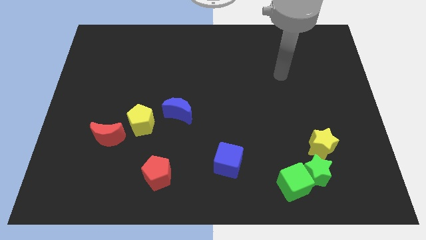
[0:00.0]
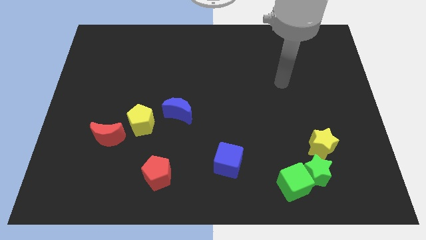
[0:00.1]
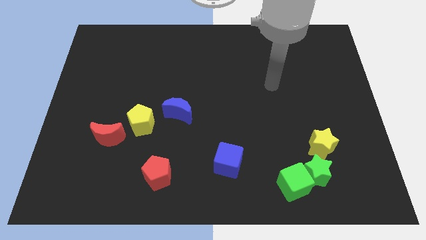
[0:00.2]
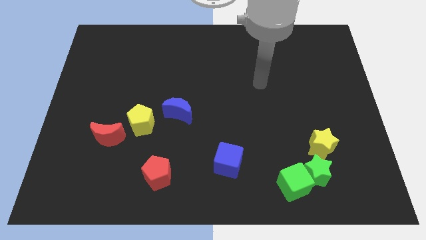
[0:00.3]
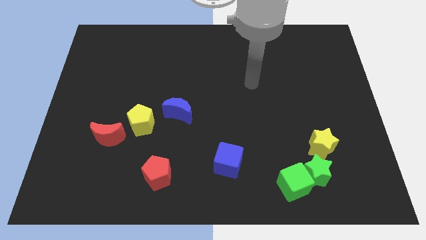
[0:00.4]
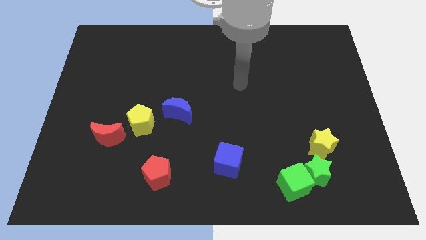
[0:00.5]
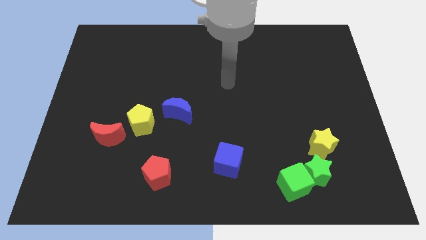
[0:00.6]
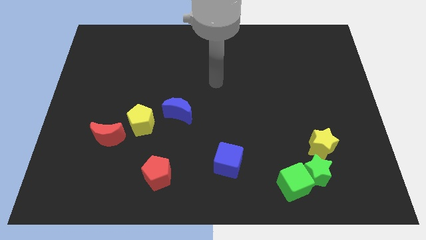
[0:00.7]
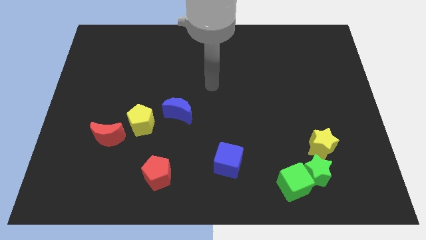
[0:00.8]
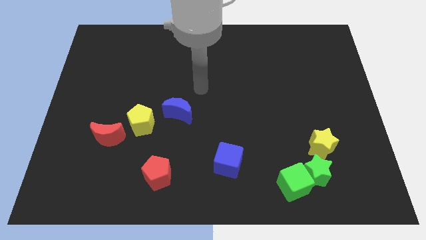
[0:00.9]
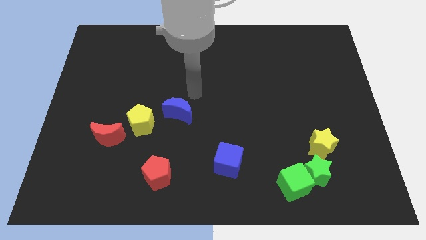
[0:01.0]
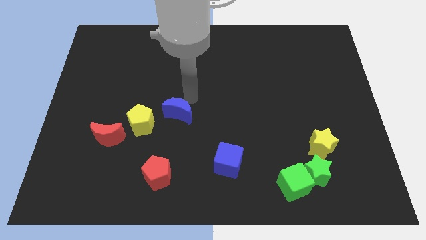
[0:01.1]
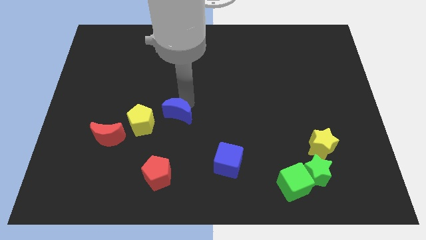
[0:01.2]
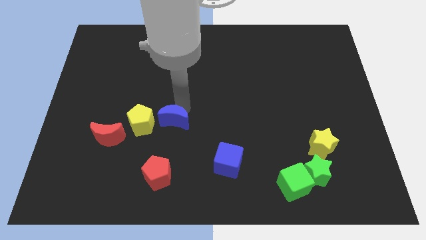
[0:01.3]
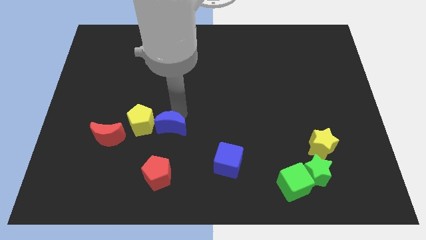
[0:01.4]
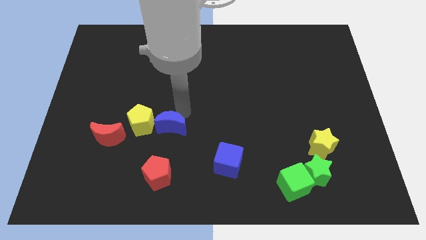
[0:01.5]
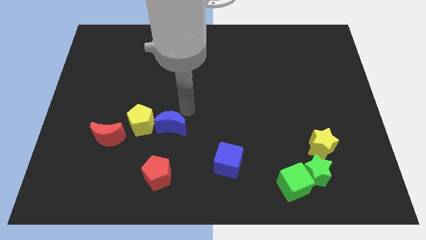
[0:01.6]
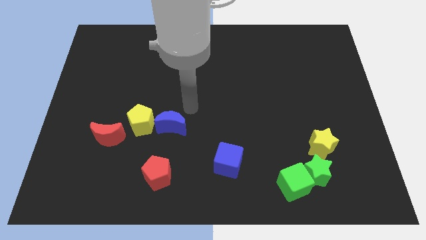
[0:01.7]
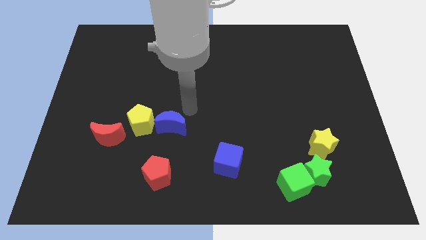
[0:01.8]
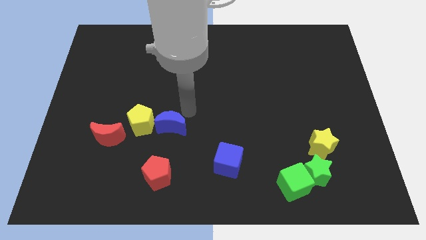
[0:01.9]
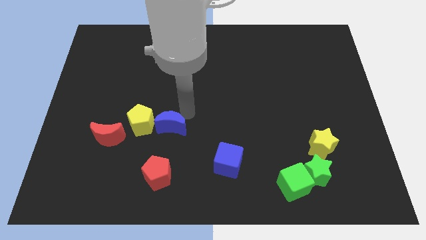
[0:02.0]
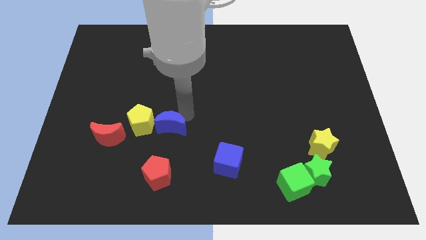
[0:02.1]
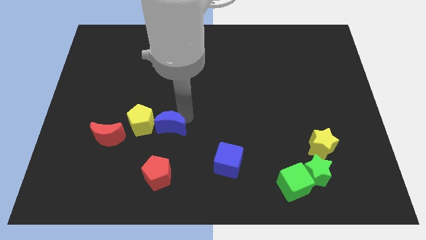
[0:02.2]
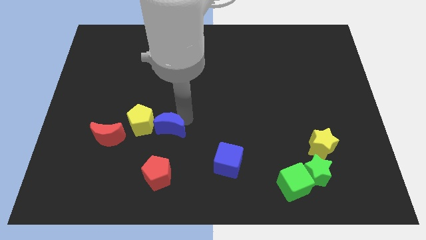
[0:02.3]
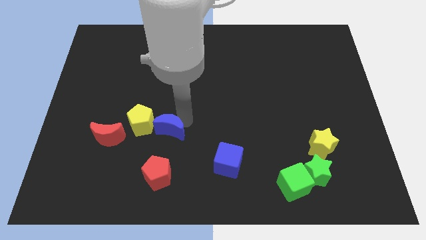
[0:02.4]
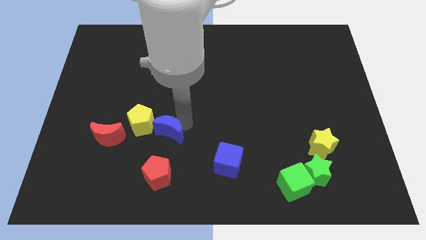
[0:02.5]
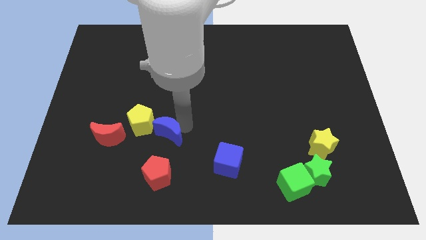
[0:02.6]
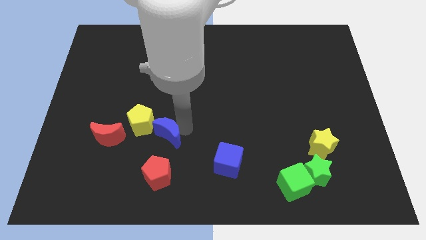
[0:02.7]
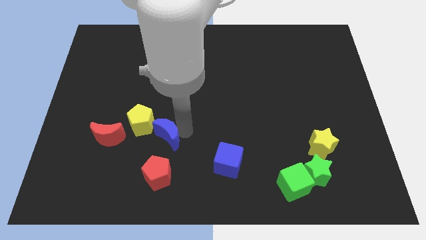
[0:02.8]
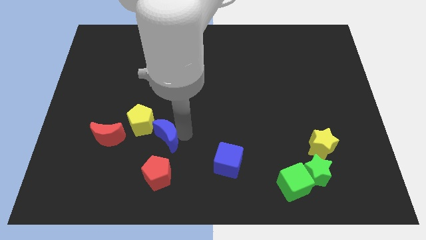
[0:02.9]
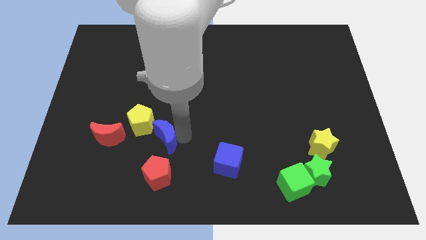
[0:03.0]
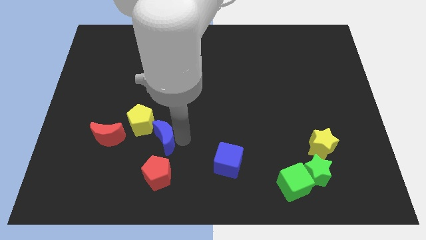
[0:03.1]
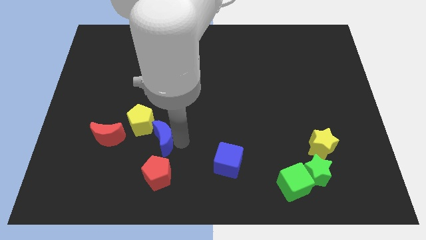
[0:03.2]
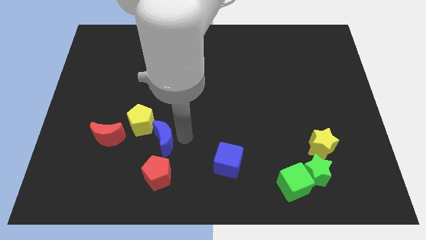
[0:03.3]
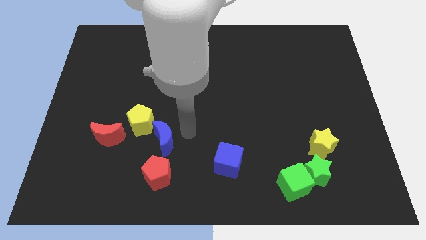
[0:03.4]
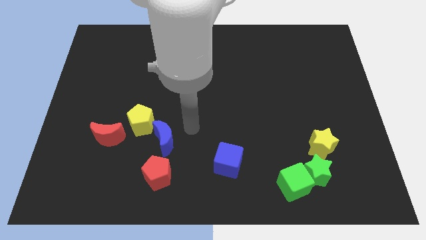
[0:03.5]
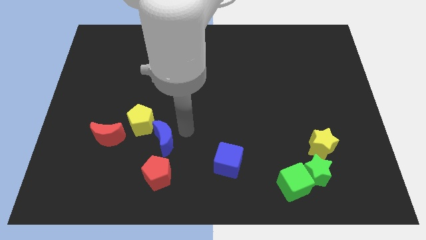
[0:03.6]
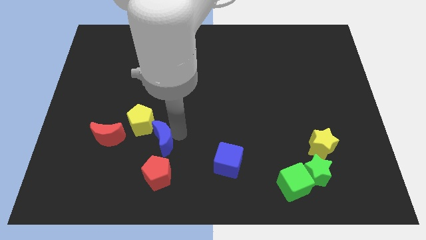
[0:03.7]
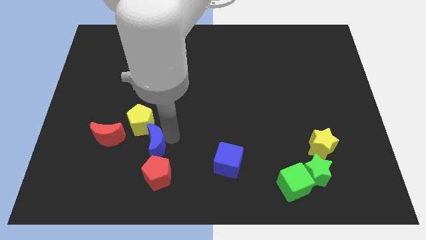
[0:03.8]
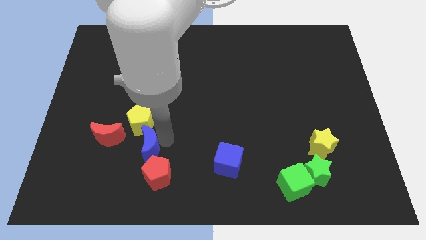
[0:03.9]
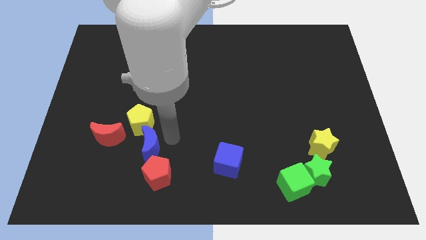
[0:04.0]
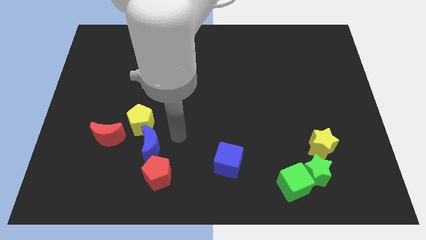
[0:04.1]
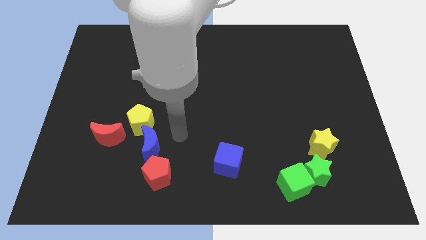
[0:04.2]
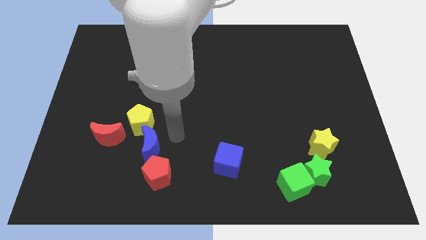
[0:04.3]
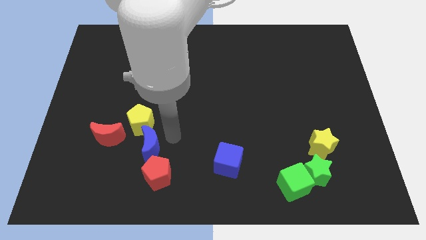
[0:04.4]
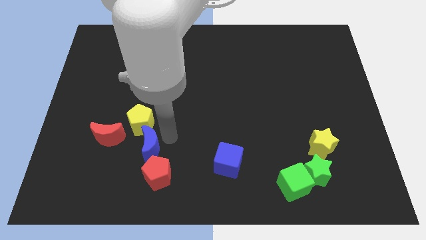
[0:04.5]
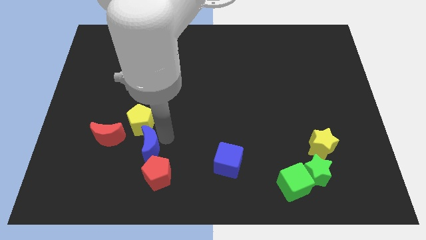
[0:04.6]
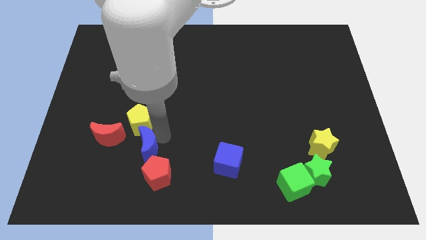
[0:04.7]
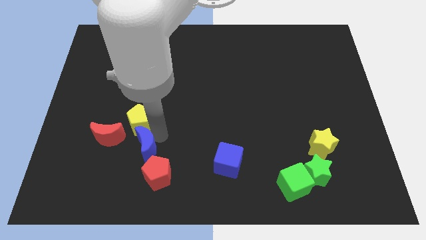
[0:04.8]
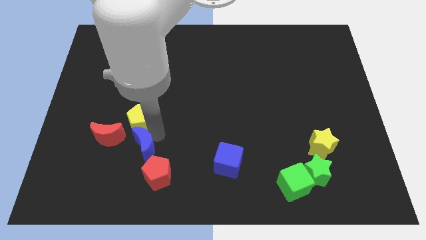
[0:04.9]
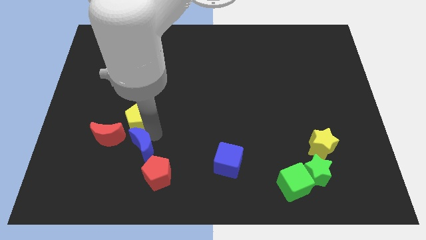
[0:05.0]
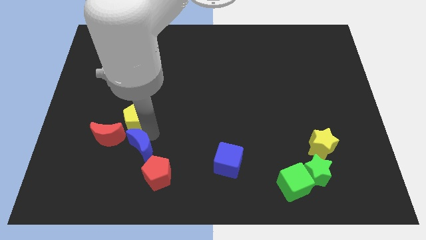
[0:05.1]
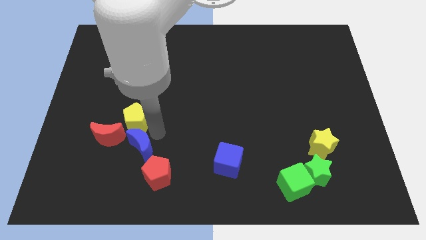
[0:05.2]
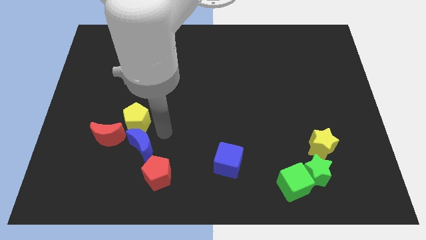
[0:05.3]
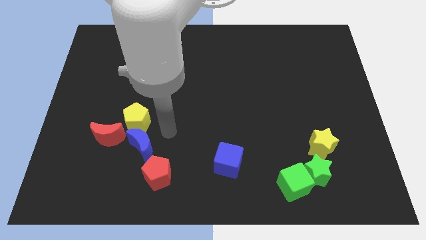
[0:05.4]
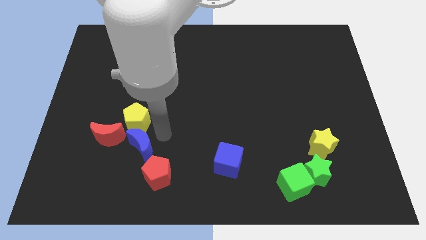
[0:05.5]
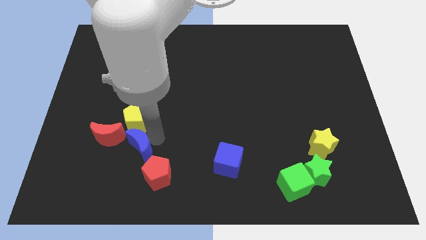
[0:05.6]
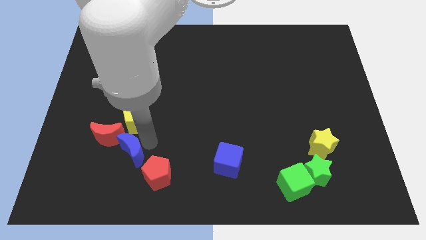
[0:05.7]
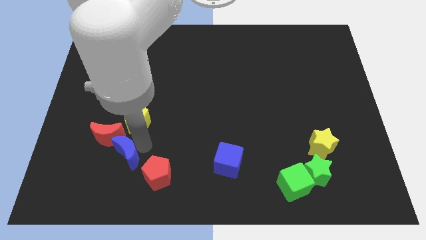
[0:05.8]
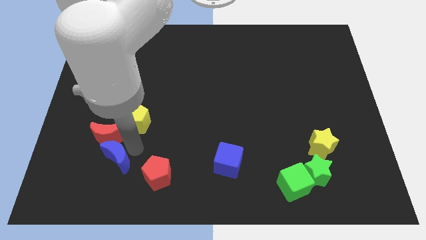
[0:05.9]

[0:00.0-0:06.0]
put the blue moon to the bottom side of the red moon
